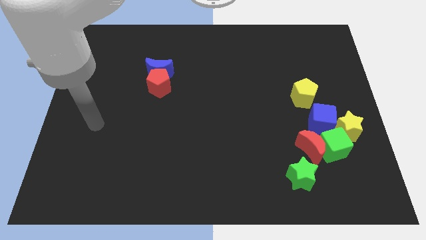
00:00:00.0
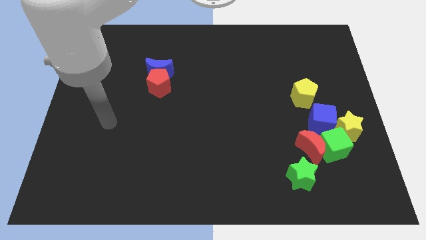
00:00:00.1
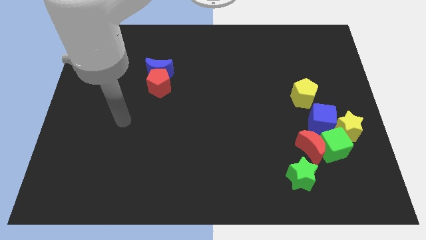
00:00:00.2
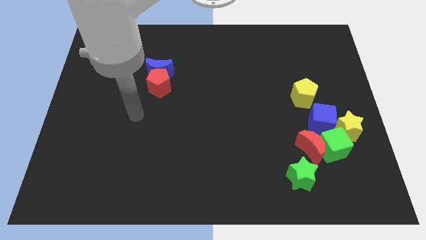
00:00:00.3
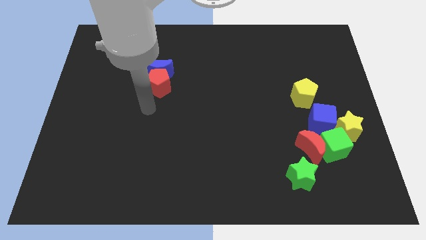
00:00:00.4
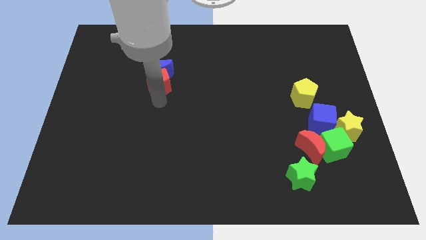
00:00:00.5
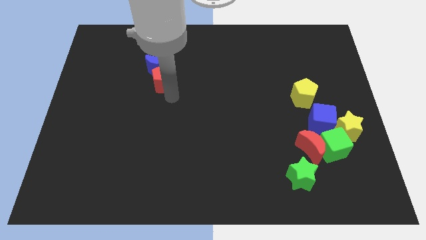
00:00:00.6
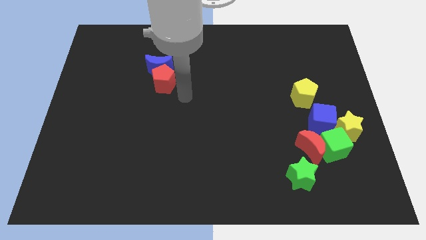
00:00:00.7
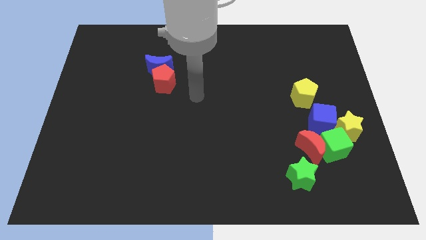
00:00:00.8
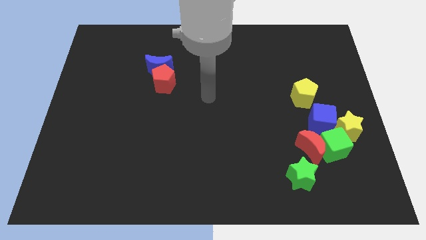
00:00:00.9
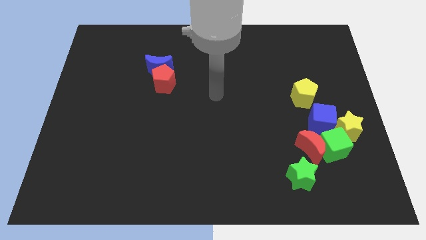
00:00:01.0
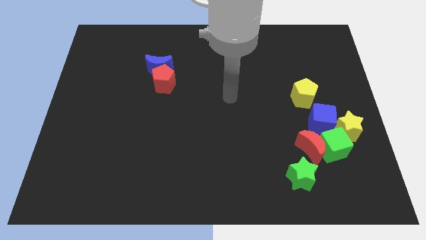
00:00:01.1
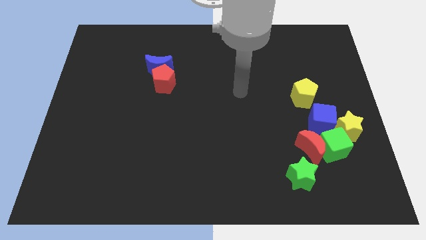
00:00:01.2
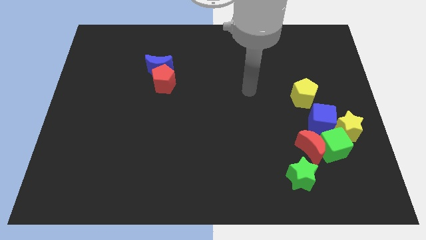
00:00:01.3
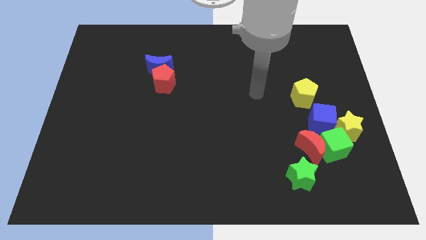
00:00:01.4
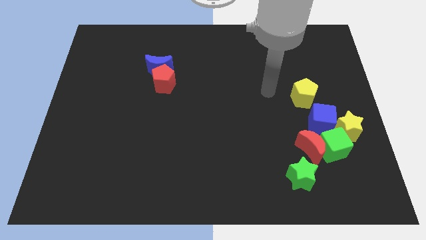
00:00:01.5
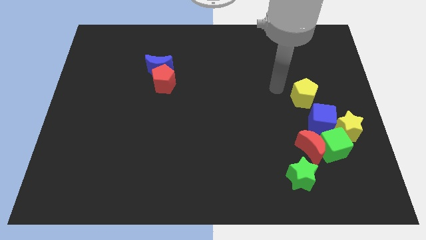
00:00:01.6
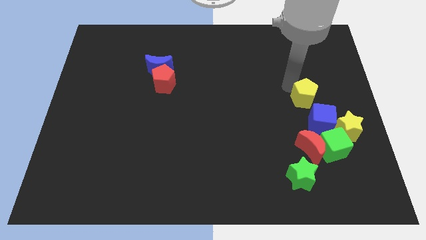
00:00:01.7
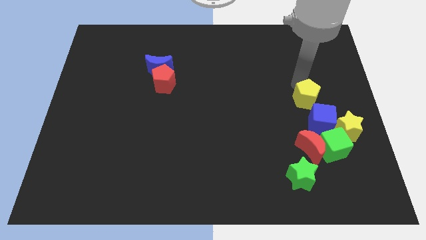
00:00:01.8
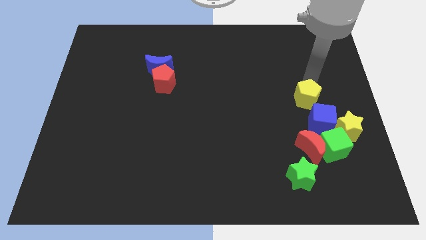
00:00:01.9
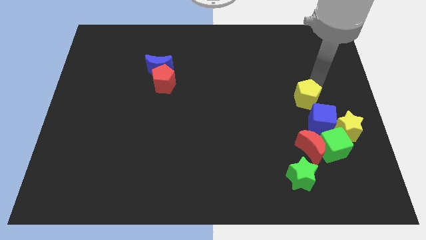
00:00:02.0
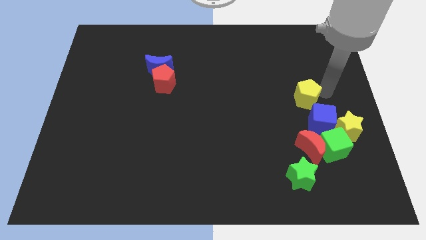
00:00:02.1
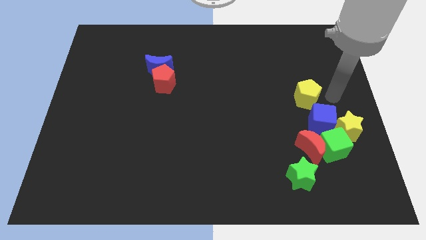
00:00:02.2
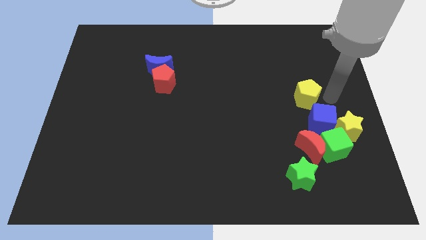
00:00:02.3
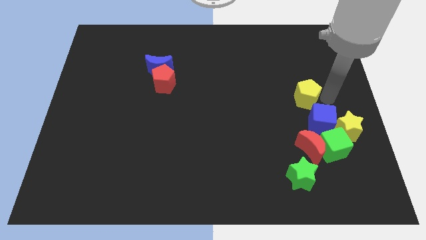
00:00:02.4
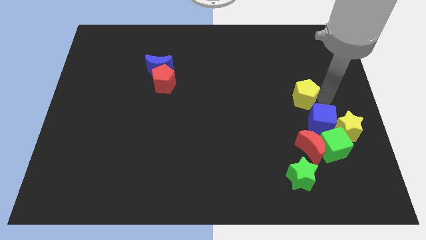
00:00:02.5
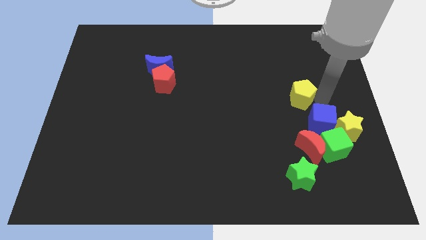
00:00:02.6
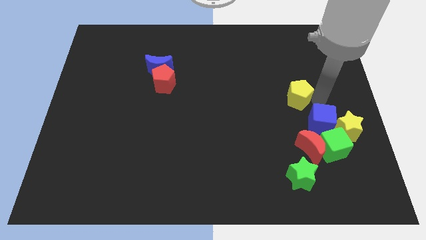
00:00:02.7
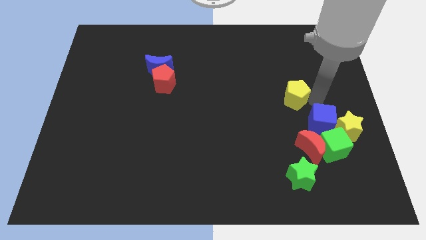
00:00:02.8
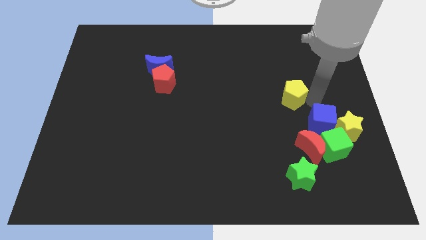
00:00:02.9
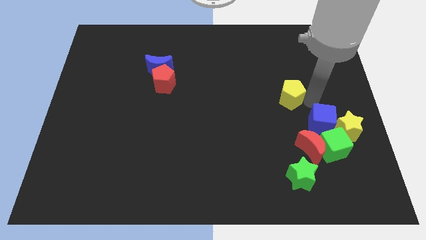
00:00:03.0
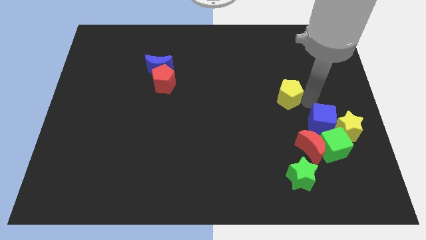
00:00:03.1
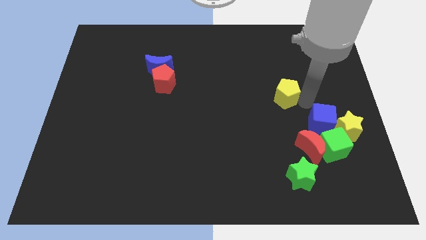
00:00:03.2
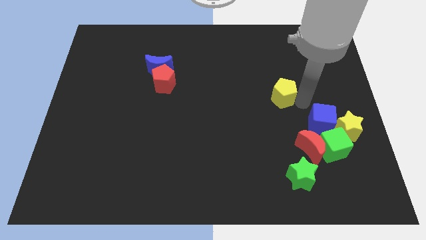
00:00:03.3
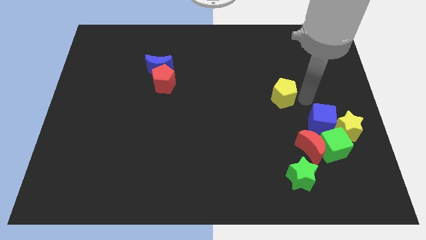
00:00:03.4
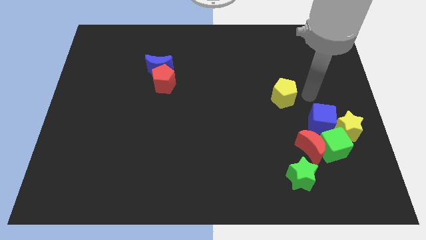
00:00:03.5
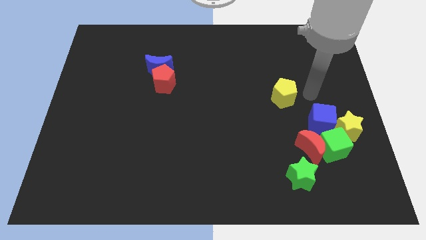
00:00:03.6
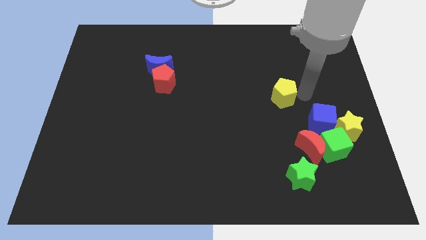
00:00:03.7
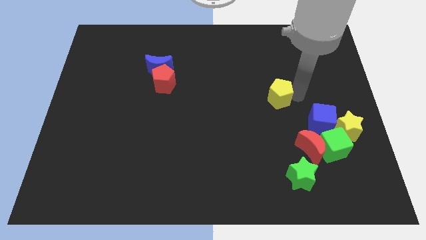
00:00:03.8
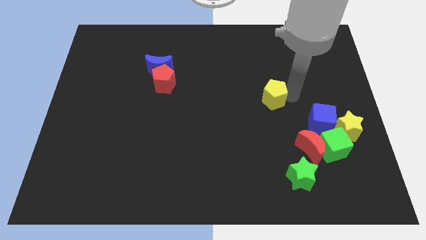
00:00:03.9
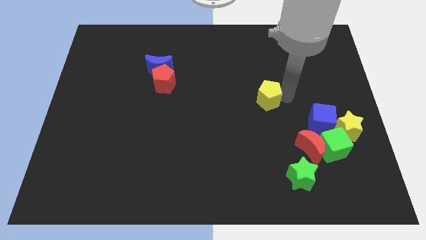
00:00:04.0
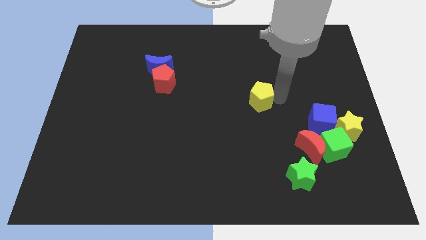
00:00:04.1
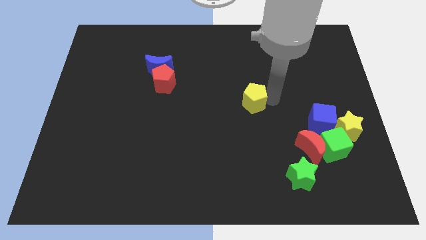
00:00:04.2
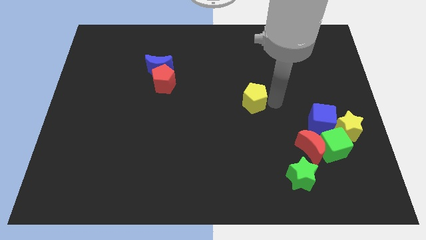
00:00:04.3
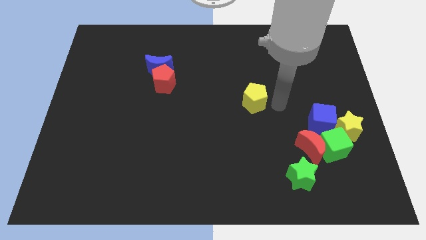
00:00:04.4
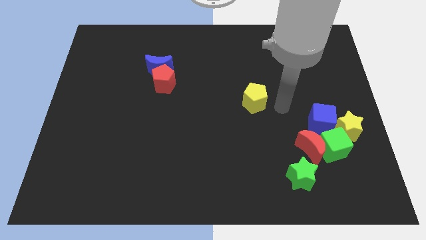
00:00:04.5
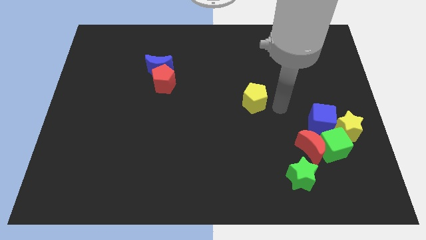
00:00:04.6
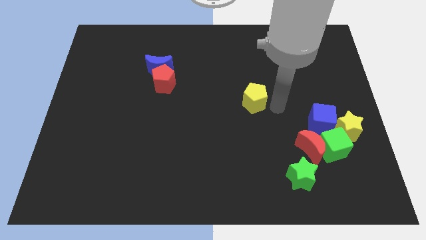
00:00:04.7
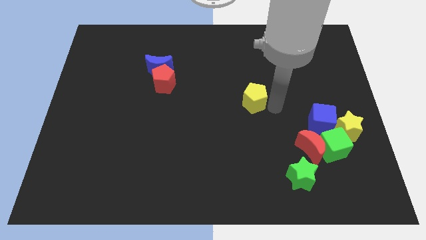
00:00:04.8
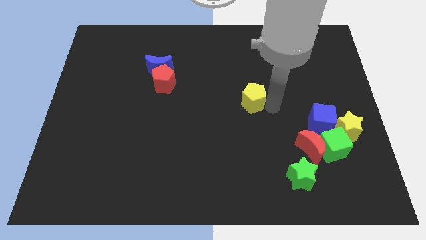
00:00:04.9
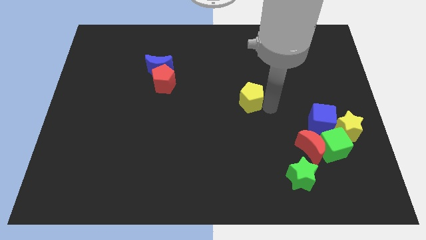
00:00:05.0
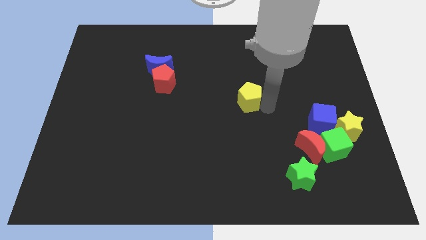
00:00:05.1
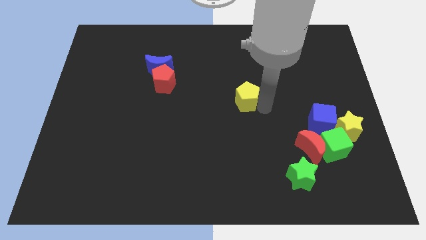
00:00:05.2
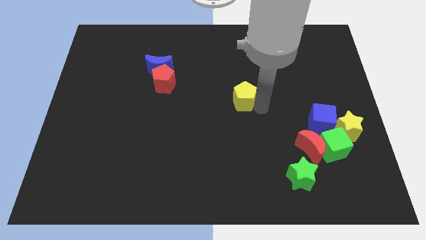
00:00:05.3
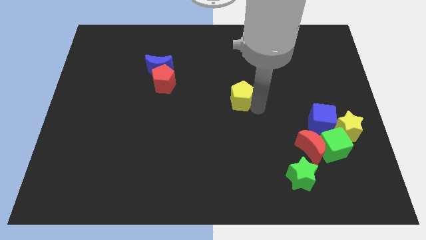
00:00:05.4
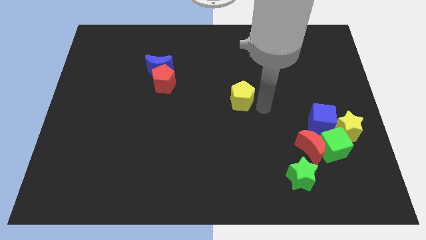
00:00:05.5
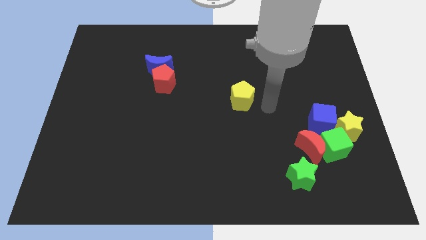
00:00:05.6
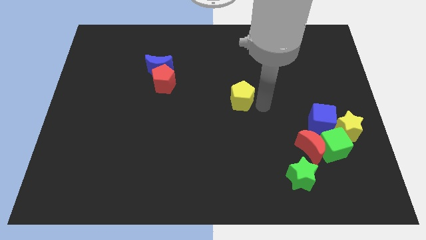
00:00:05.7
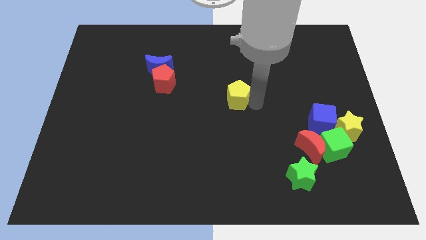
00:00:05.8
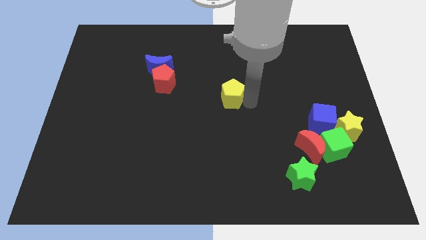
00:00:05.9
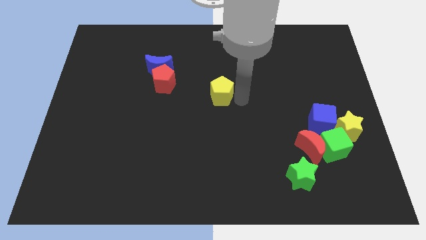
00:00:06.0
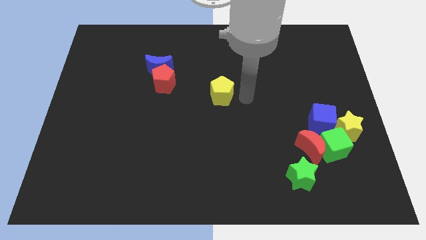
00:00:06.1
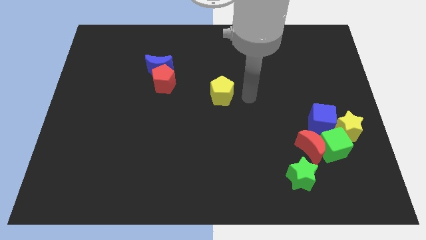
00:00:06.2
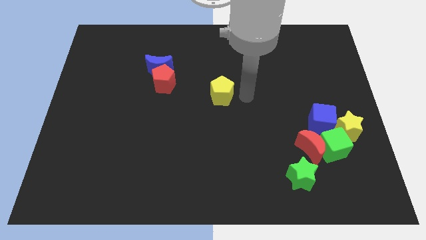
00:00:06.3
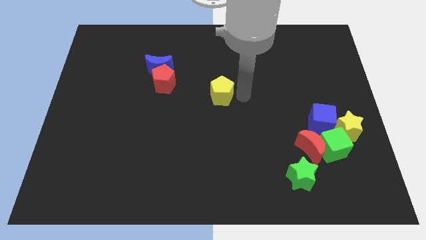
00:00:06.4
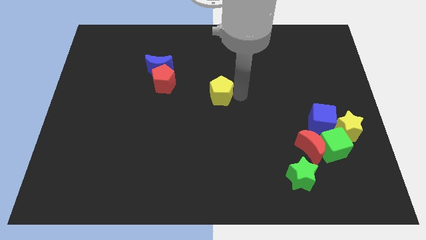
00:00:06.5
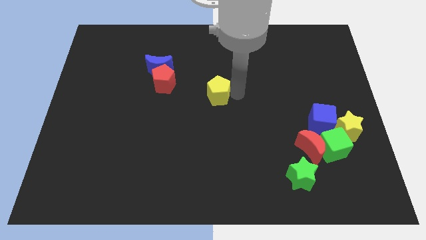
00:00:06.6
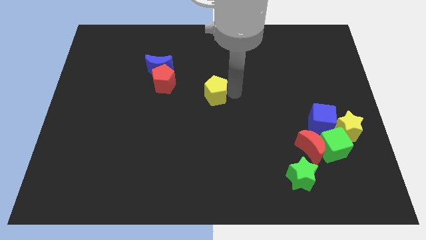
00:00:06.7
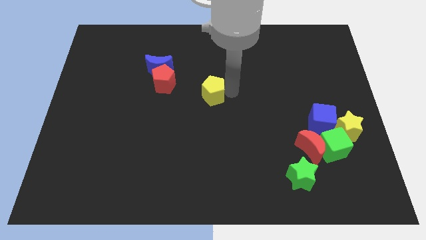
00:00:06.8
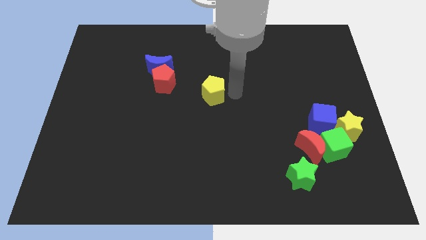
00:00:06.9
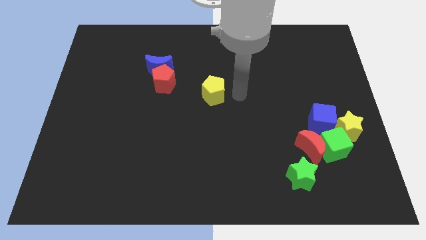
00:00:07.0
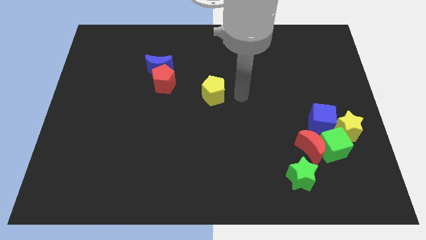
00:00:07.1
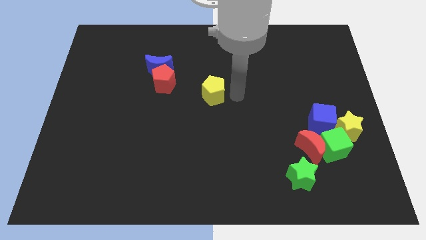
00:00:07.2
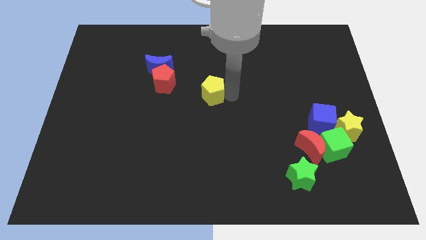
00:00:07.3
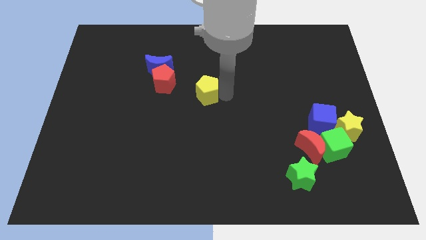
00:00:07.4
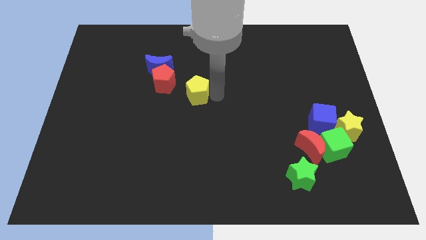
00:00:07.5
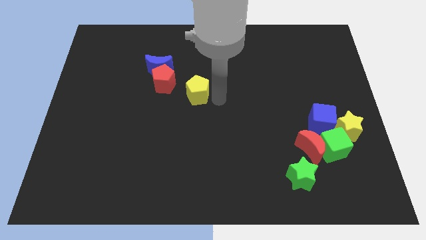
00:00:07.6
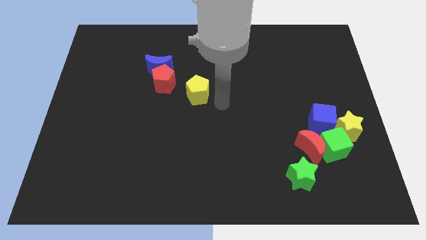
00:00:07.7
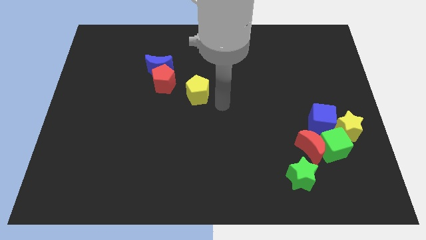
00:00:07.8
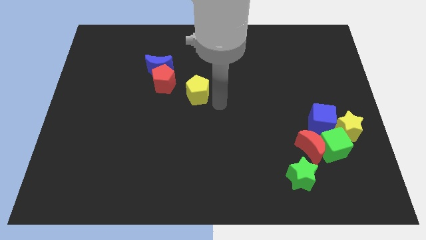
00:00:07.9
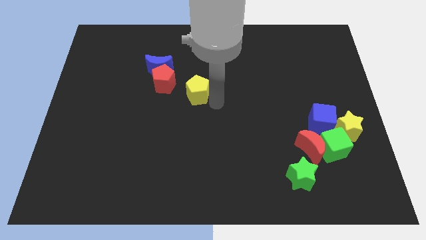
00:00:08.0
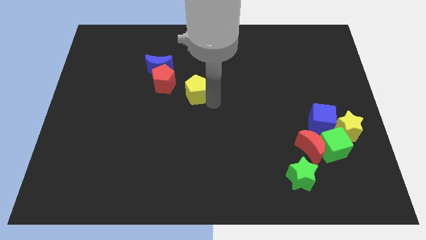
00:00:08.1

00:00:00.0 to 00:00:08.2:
push the yellow pentagon diagonally down and to the right of the blue moon
